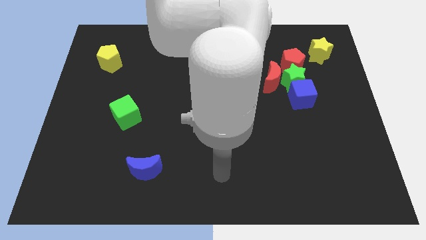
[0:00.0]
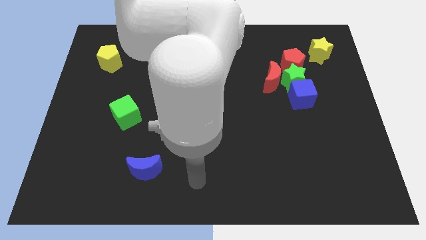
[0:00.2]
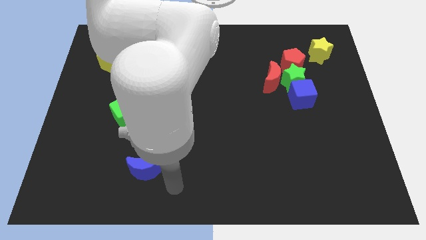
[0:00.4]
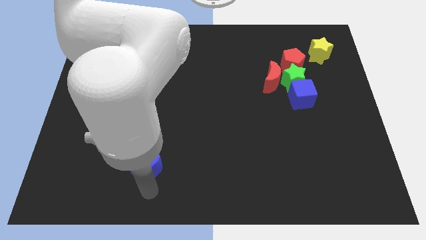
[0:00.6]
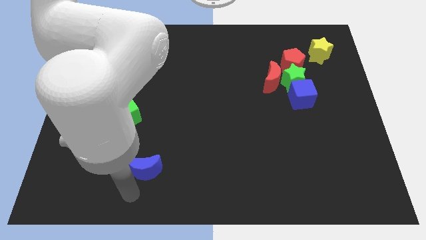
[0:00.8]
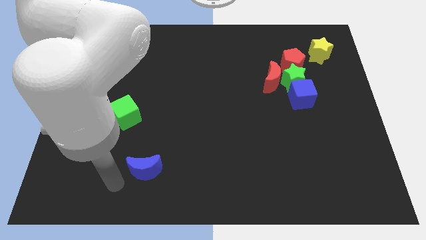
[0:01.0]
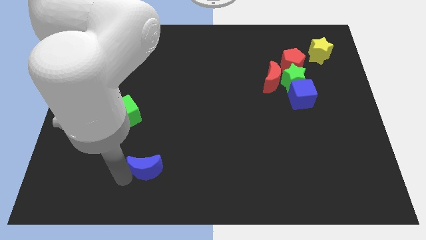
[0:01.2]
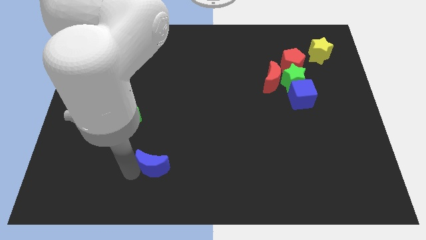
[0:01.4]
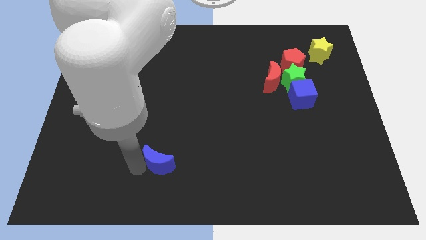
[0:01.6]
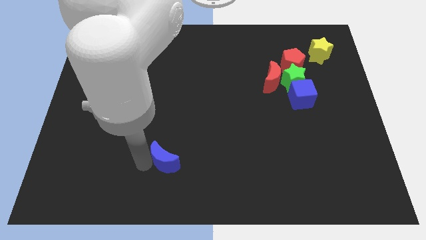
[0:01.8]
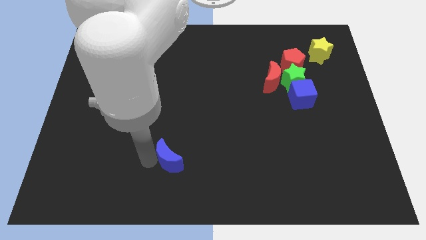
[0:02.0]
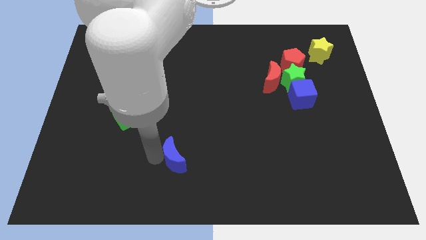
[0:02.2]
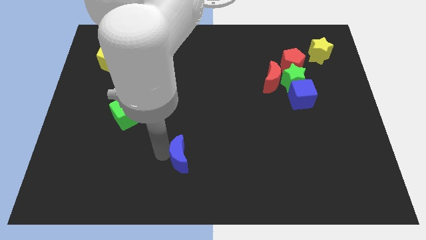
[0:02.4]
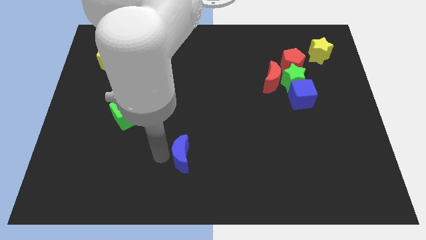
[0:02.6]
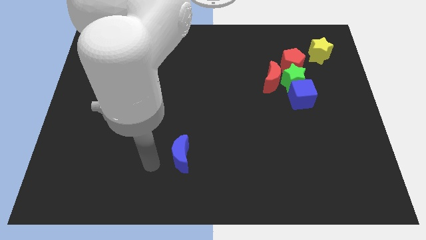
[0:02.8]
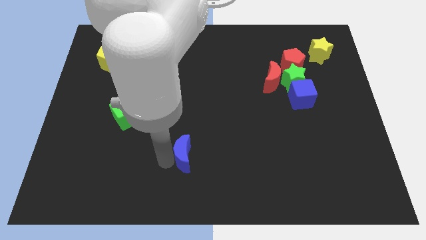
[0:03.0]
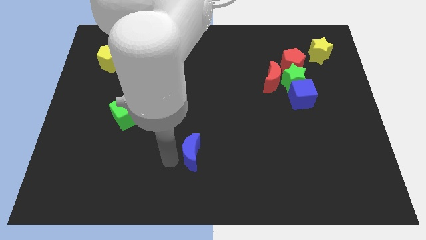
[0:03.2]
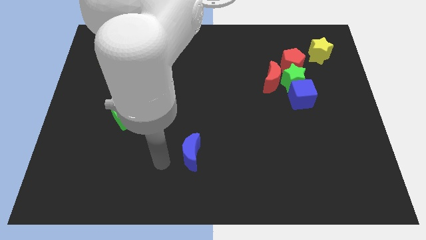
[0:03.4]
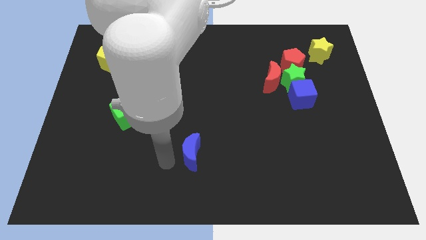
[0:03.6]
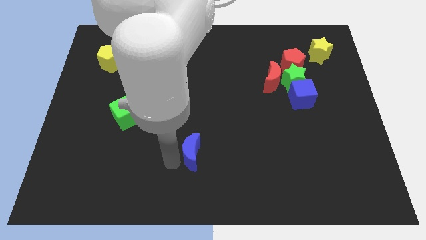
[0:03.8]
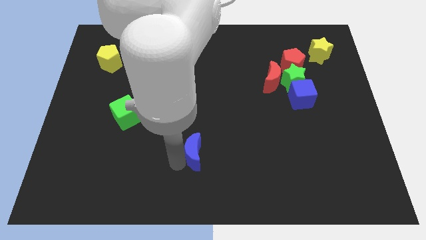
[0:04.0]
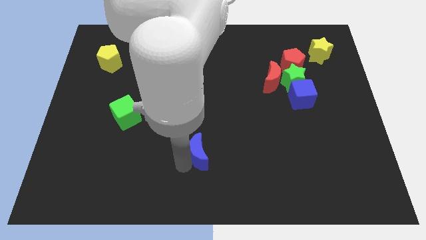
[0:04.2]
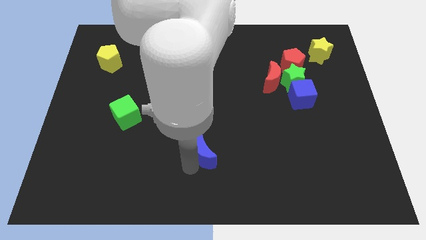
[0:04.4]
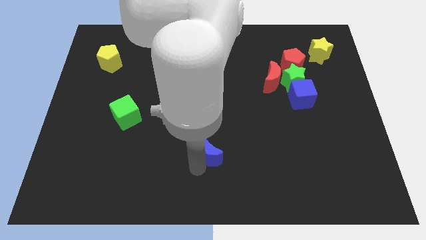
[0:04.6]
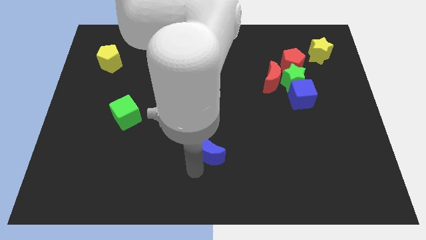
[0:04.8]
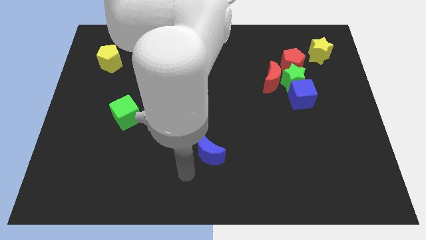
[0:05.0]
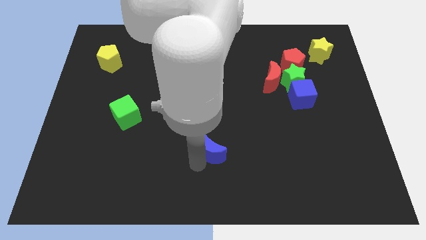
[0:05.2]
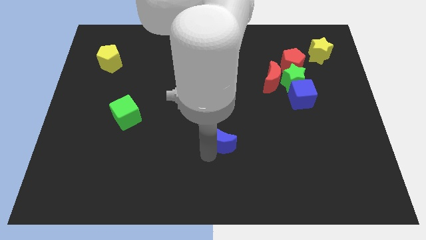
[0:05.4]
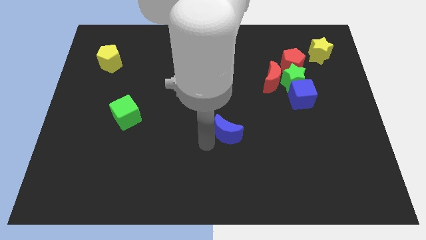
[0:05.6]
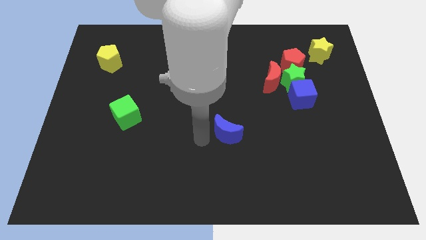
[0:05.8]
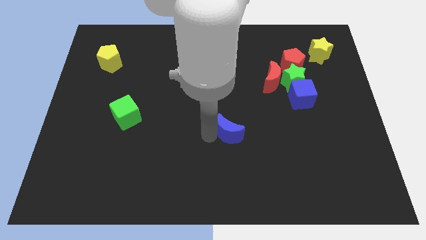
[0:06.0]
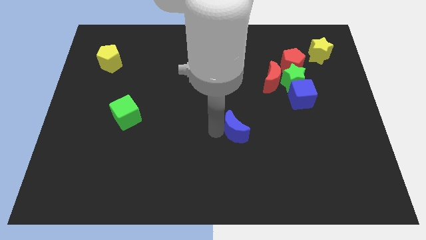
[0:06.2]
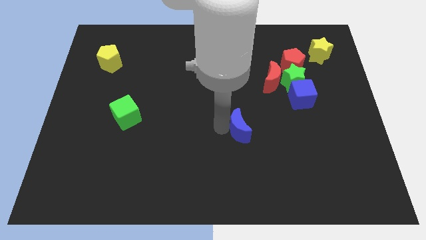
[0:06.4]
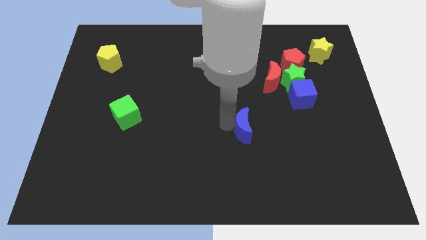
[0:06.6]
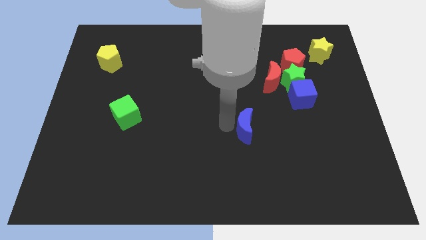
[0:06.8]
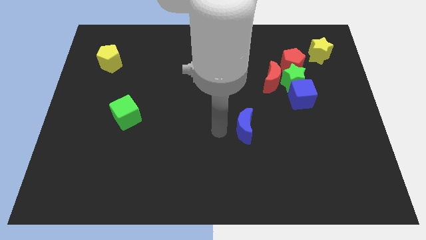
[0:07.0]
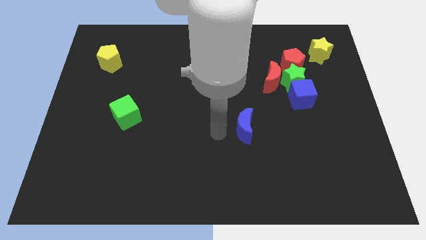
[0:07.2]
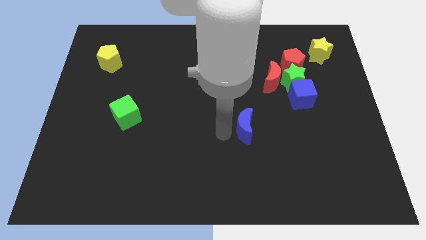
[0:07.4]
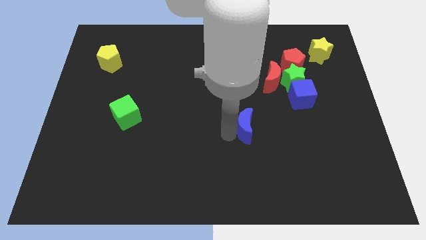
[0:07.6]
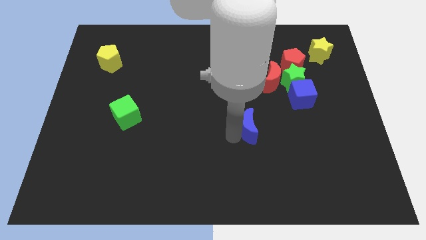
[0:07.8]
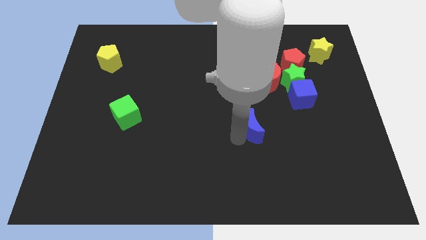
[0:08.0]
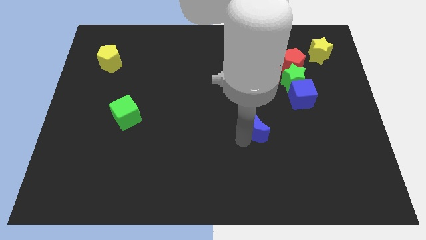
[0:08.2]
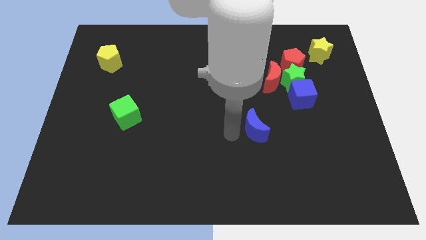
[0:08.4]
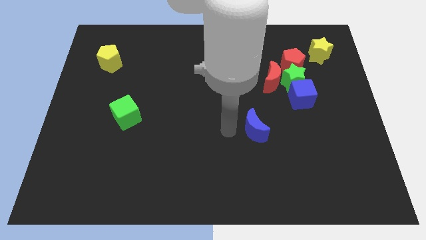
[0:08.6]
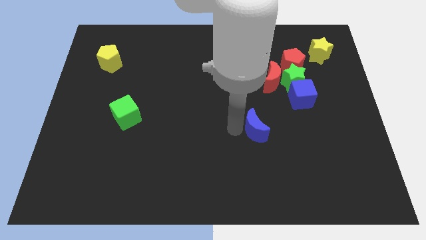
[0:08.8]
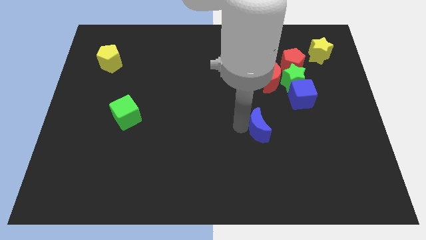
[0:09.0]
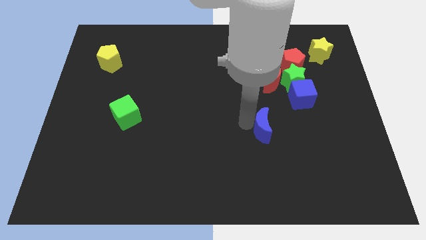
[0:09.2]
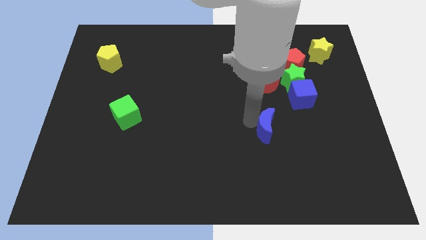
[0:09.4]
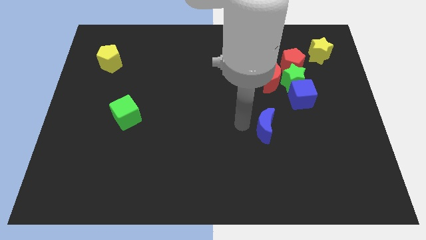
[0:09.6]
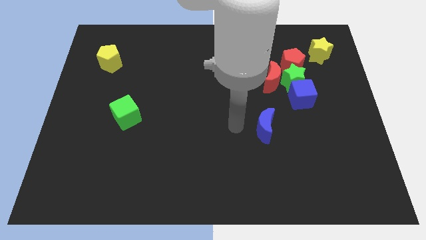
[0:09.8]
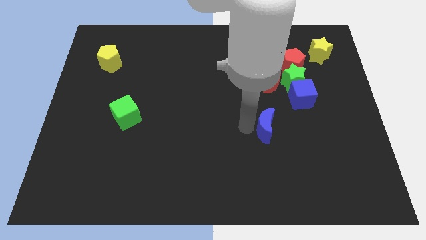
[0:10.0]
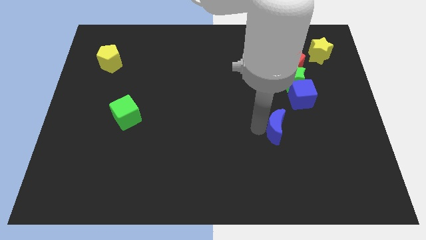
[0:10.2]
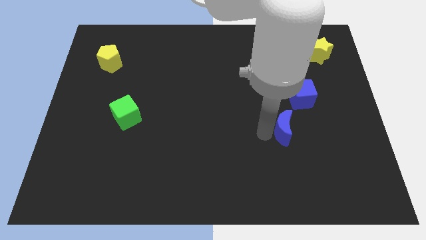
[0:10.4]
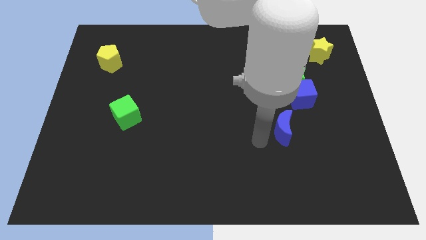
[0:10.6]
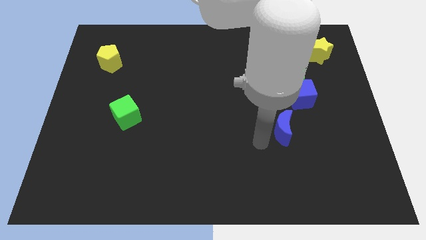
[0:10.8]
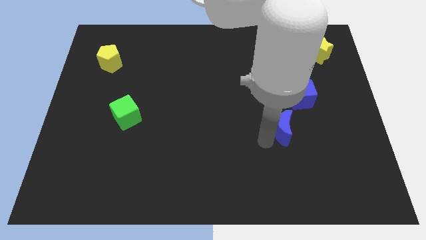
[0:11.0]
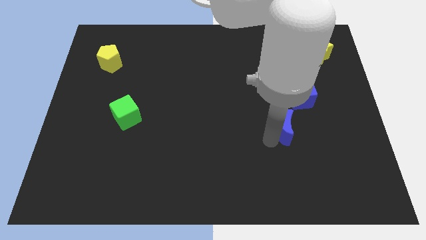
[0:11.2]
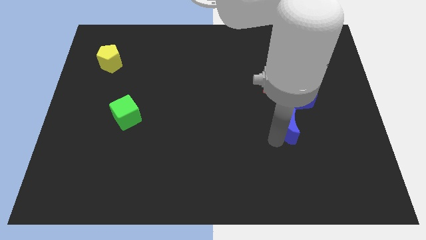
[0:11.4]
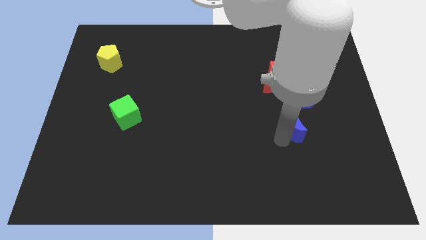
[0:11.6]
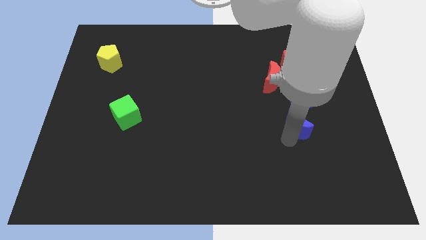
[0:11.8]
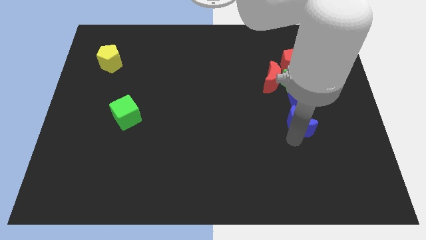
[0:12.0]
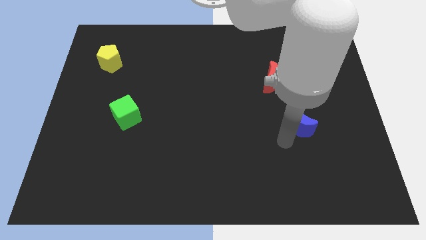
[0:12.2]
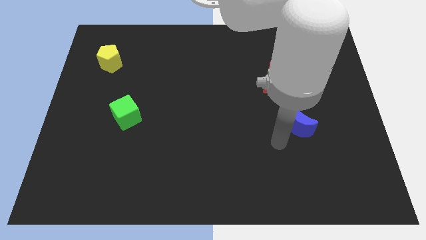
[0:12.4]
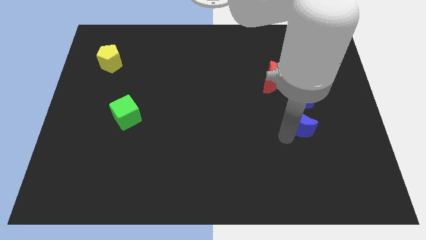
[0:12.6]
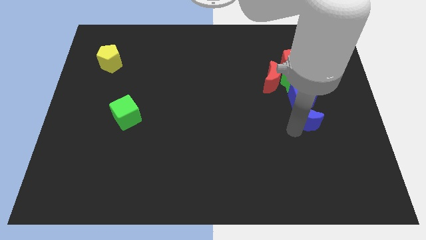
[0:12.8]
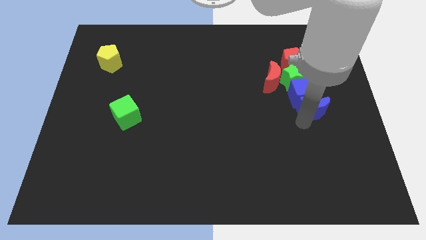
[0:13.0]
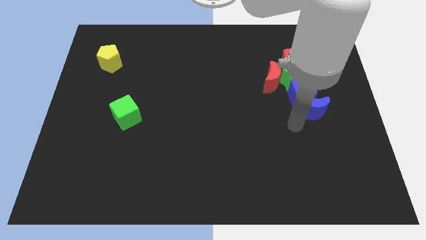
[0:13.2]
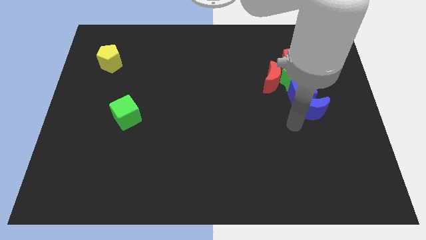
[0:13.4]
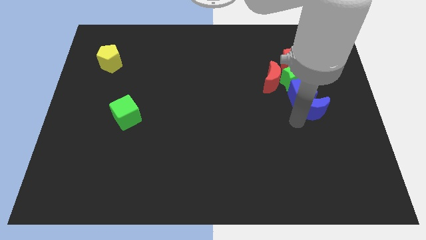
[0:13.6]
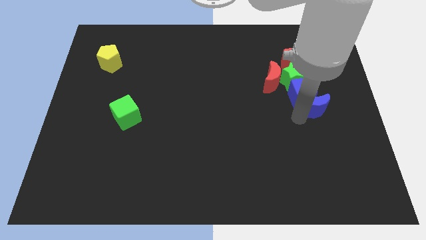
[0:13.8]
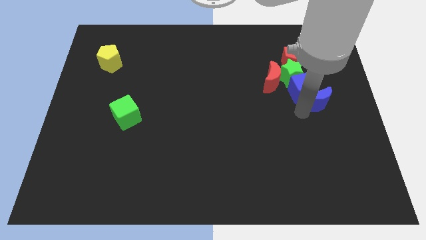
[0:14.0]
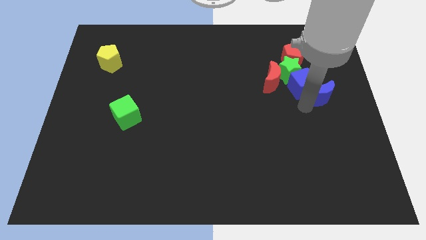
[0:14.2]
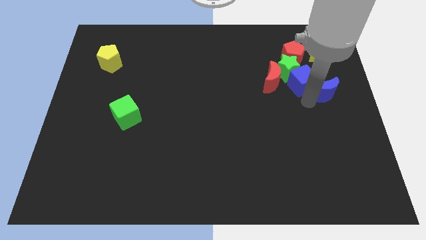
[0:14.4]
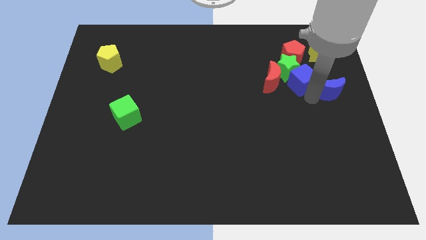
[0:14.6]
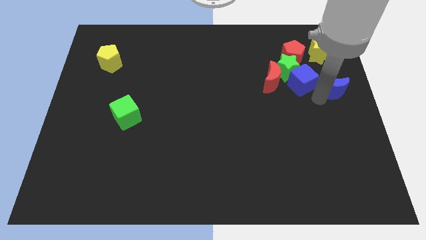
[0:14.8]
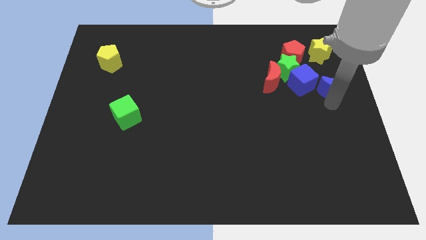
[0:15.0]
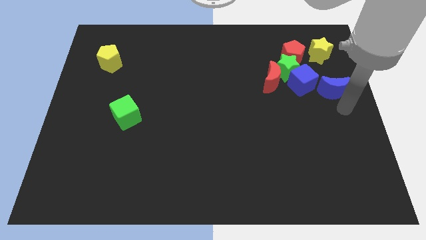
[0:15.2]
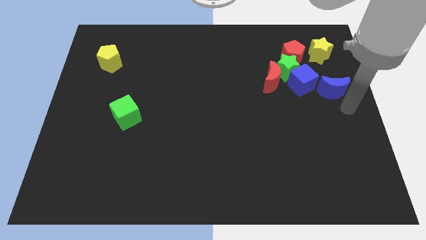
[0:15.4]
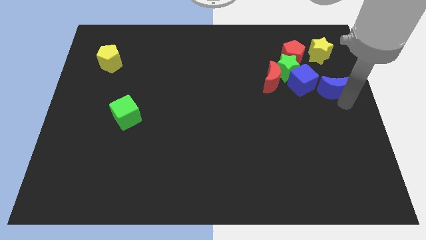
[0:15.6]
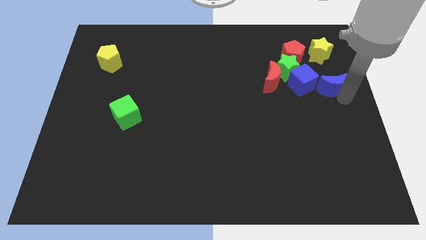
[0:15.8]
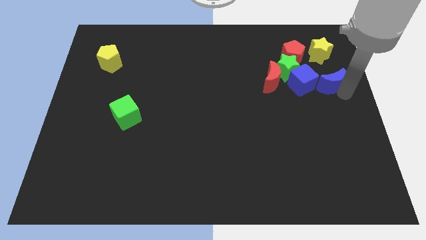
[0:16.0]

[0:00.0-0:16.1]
move the blue moon diagonally down and to the right of the red pentagon
